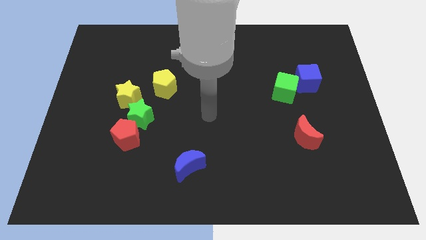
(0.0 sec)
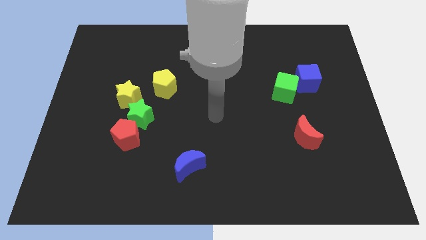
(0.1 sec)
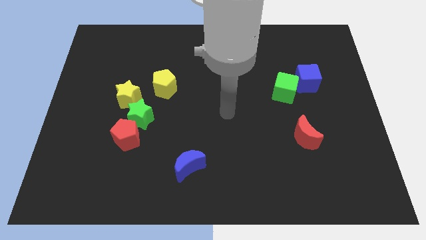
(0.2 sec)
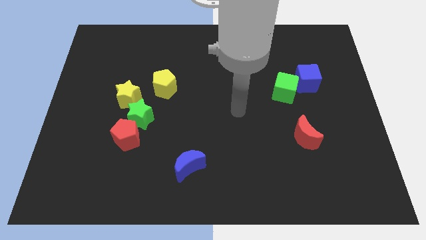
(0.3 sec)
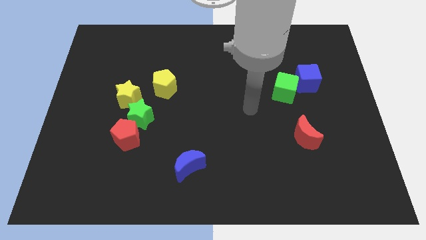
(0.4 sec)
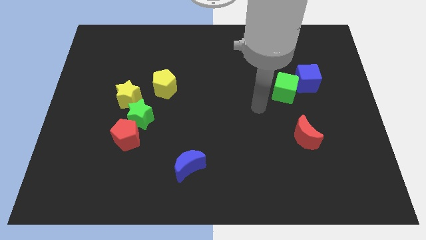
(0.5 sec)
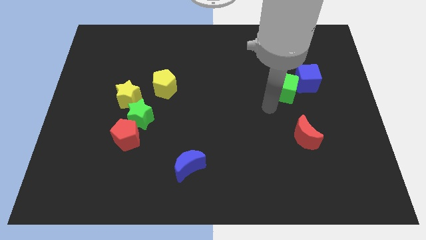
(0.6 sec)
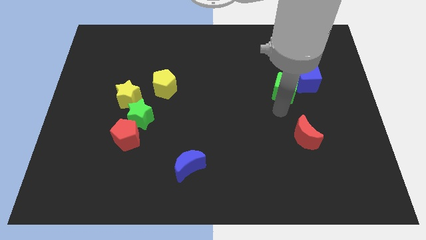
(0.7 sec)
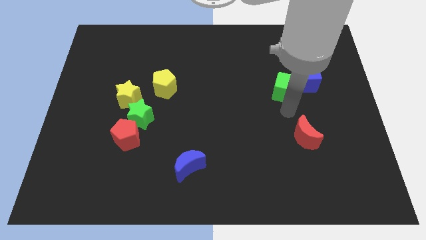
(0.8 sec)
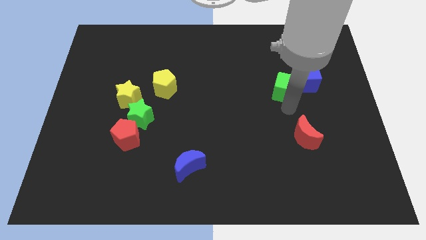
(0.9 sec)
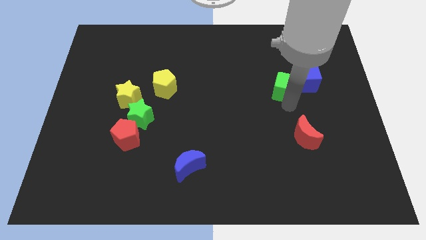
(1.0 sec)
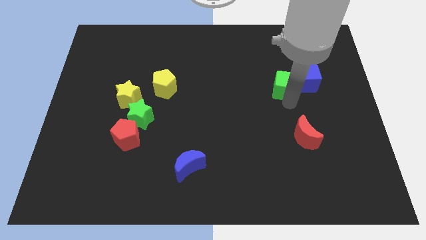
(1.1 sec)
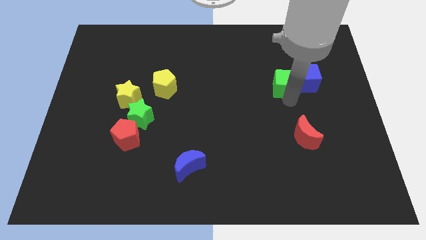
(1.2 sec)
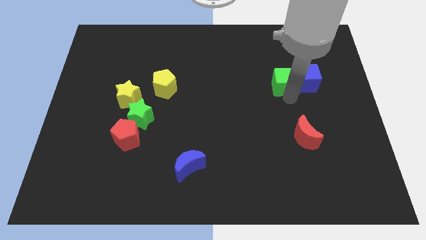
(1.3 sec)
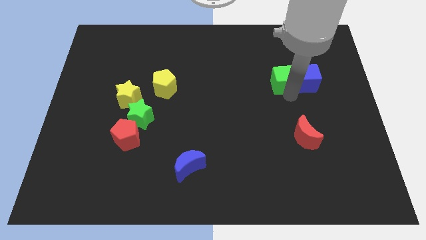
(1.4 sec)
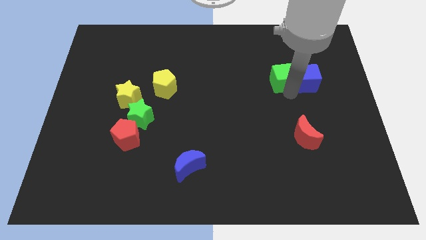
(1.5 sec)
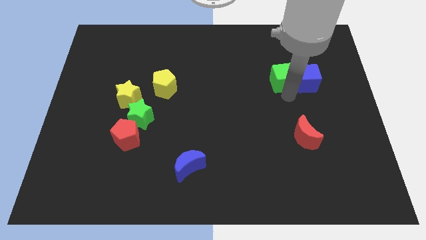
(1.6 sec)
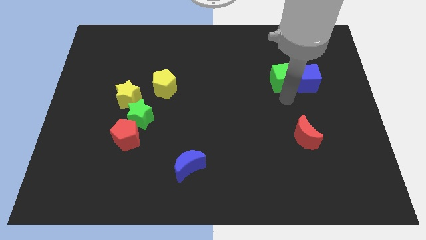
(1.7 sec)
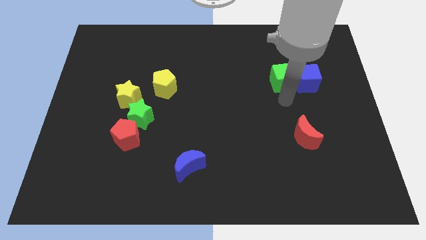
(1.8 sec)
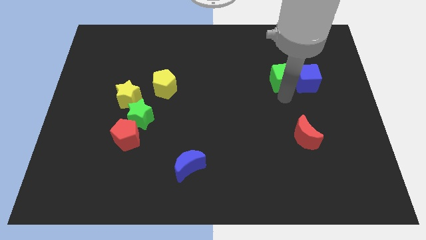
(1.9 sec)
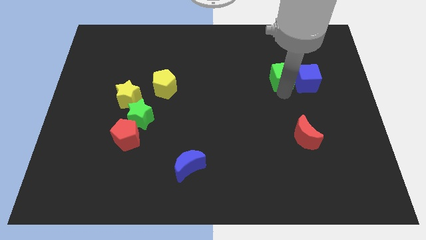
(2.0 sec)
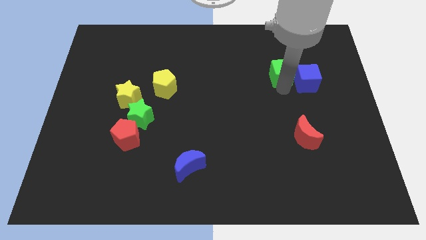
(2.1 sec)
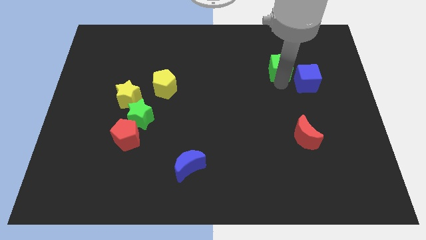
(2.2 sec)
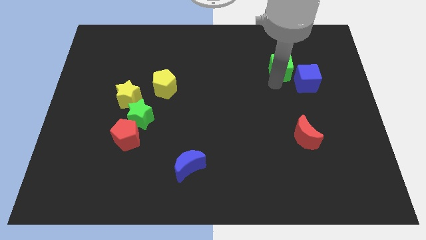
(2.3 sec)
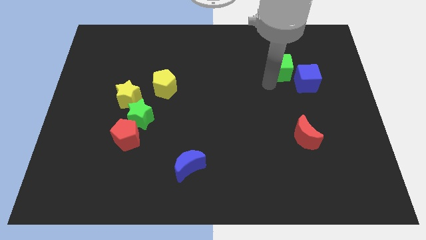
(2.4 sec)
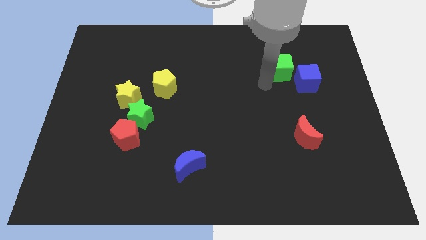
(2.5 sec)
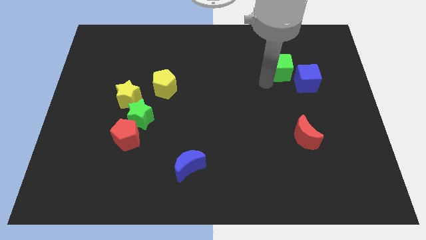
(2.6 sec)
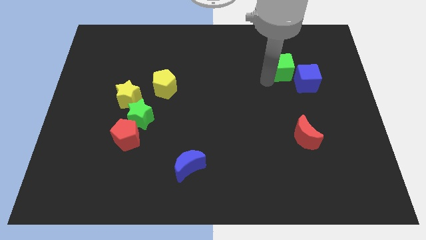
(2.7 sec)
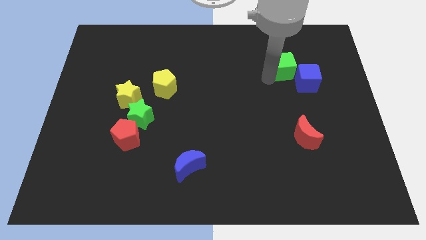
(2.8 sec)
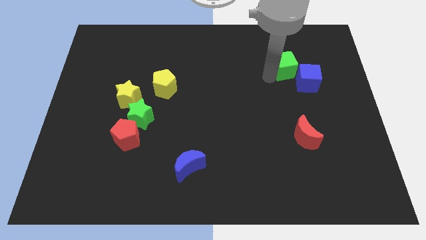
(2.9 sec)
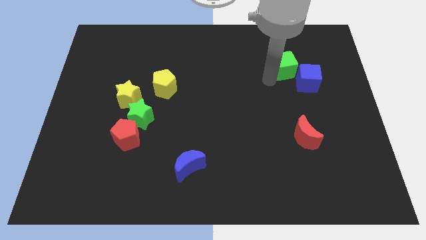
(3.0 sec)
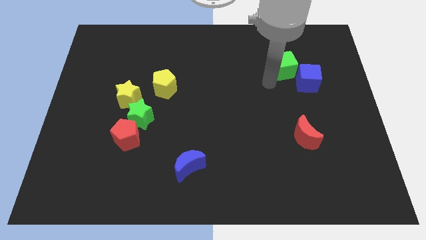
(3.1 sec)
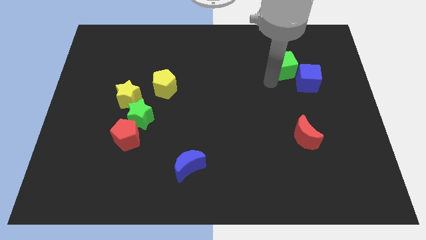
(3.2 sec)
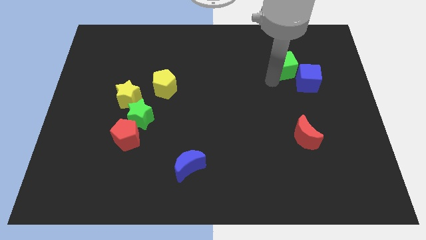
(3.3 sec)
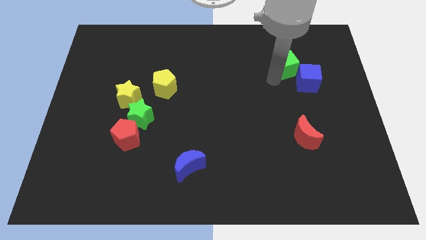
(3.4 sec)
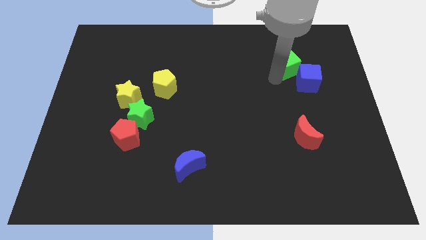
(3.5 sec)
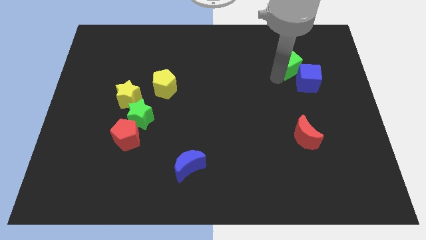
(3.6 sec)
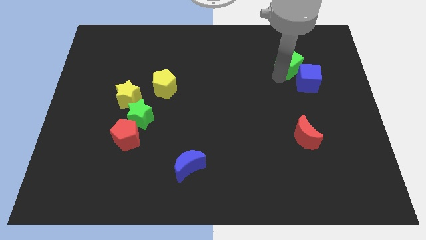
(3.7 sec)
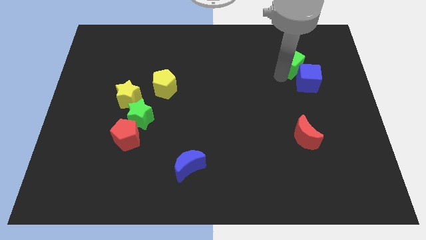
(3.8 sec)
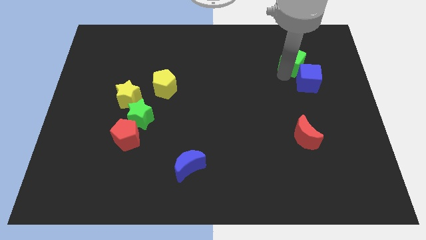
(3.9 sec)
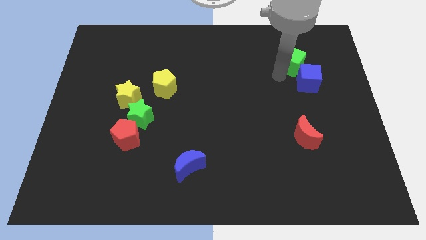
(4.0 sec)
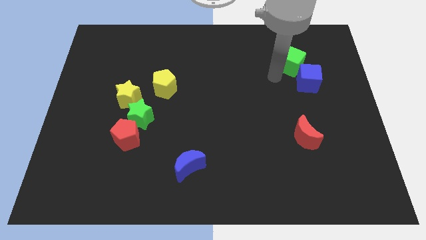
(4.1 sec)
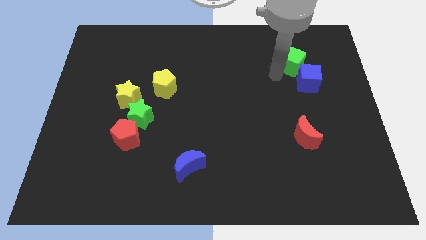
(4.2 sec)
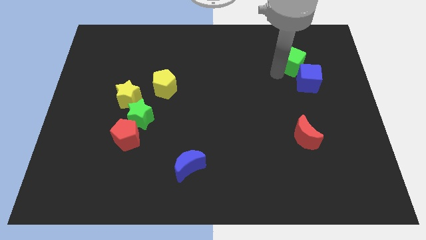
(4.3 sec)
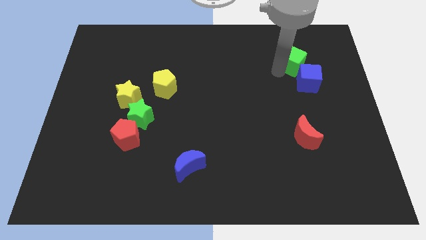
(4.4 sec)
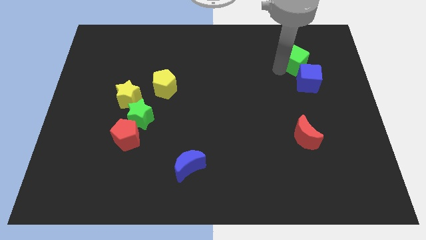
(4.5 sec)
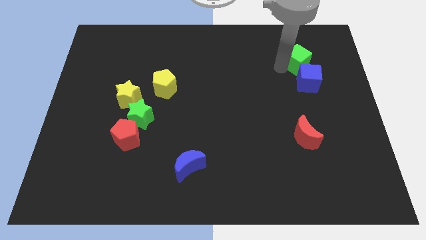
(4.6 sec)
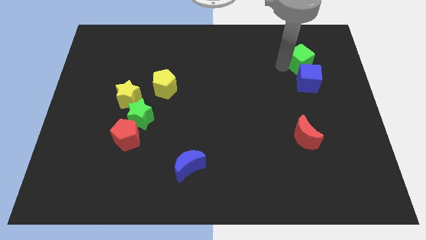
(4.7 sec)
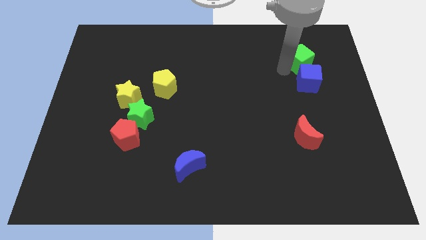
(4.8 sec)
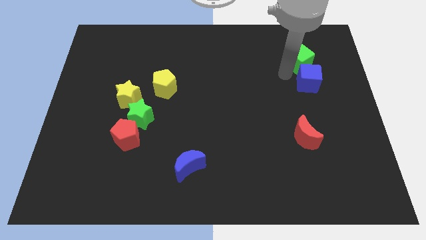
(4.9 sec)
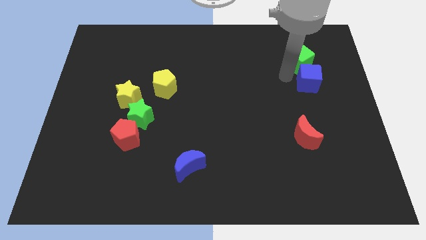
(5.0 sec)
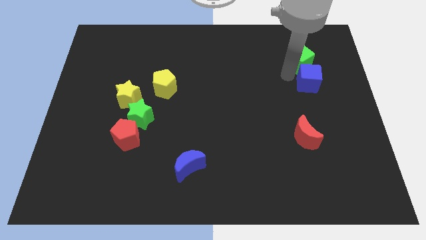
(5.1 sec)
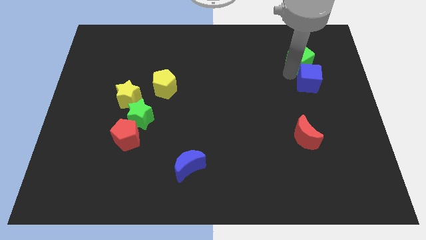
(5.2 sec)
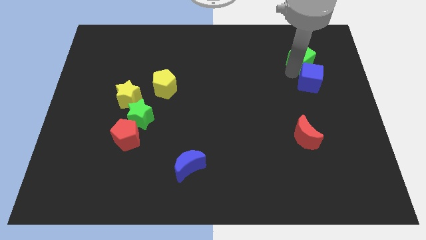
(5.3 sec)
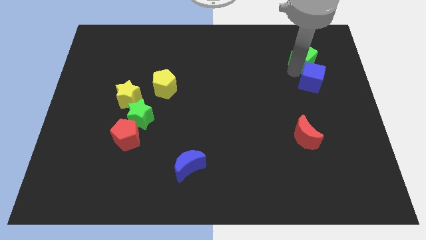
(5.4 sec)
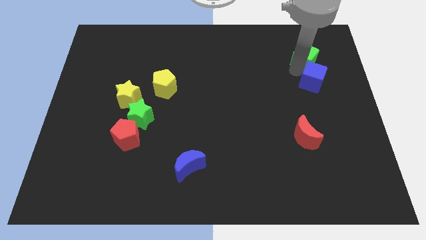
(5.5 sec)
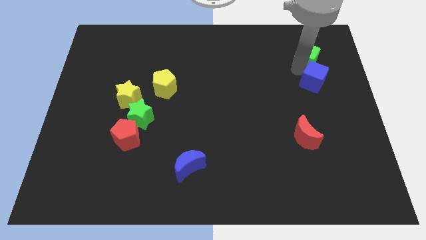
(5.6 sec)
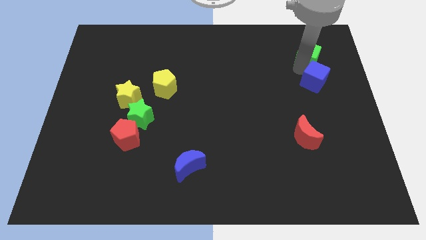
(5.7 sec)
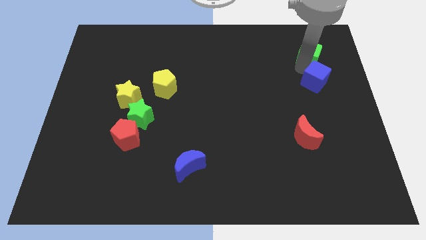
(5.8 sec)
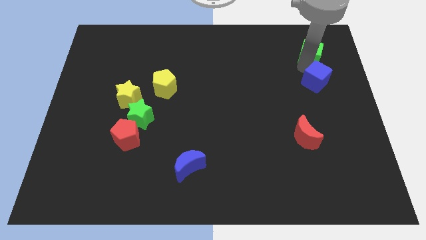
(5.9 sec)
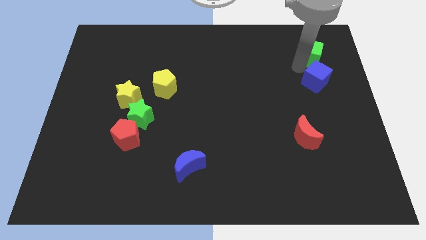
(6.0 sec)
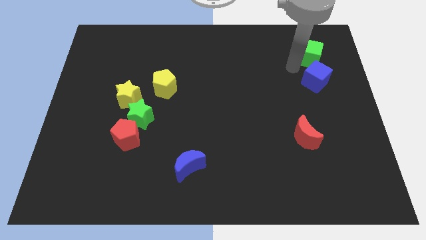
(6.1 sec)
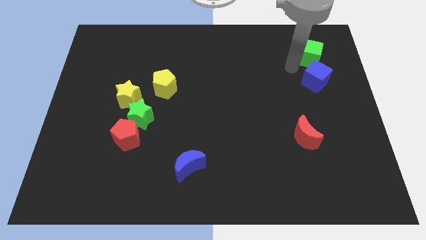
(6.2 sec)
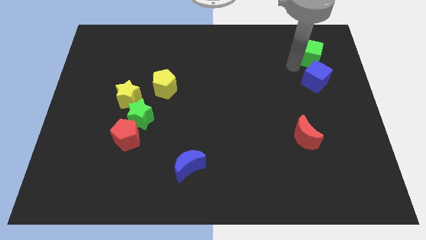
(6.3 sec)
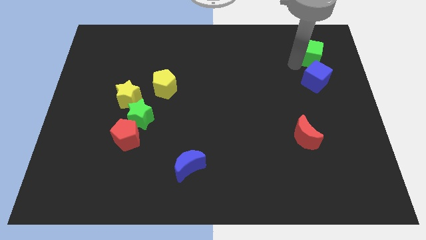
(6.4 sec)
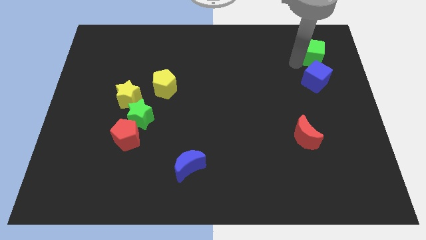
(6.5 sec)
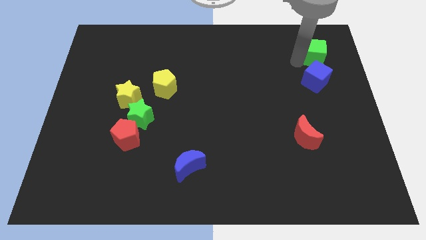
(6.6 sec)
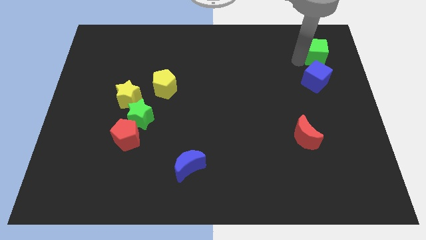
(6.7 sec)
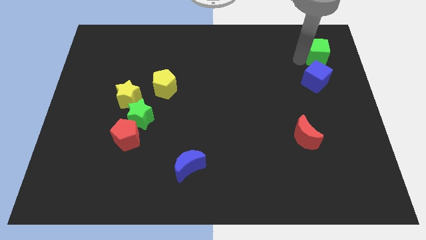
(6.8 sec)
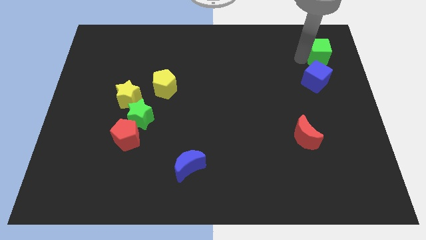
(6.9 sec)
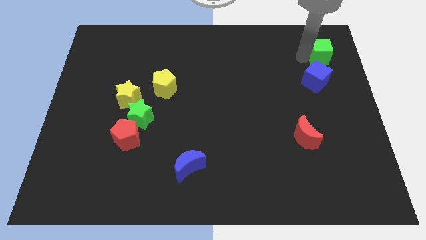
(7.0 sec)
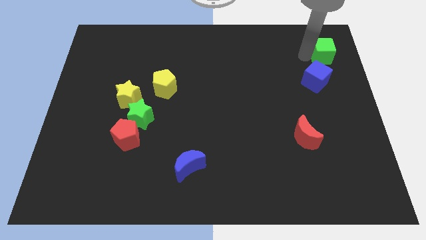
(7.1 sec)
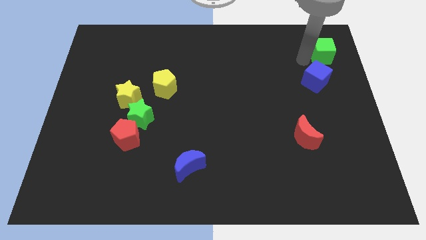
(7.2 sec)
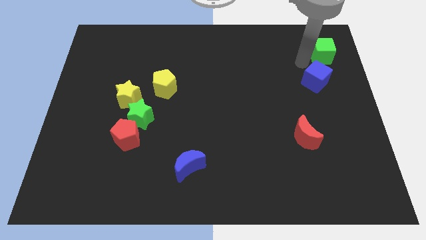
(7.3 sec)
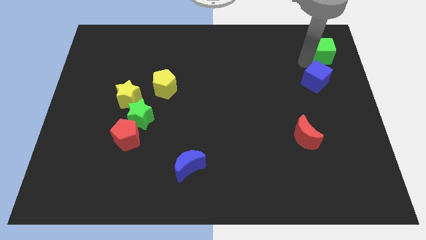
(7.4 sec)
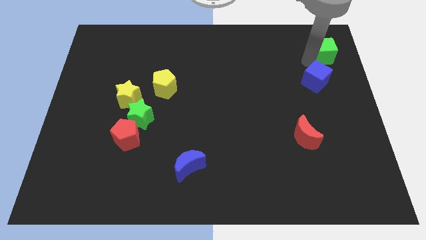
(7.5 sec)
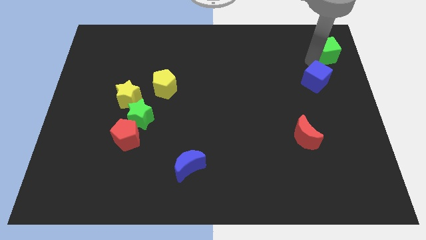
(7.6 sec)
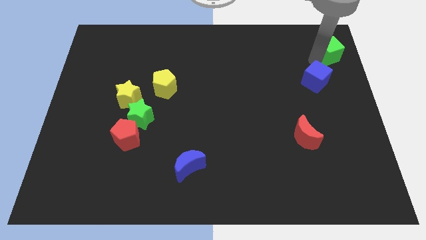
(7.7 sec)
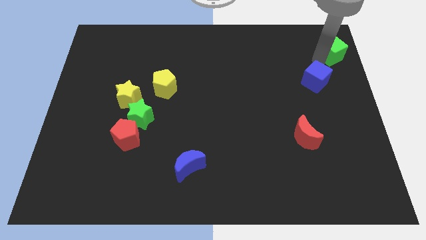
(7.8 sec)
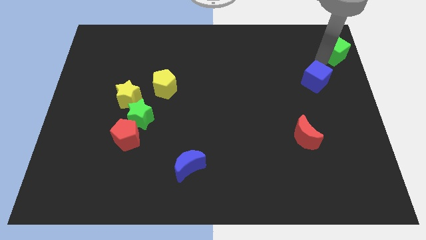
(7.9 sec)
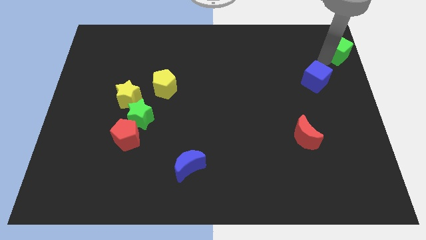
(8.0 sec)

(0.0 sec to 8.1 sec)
push the green cube to the upper right corner
